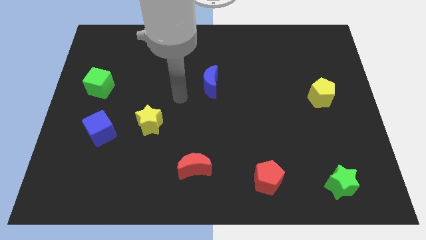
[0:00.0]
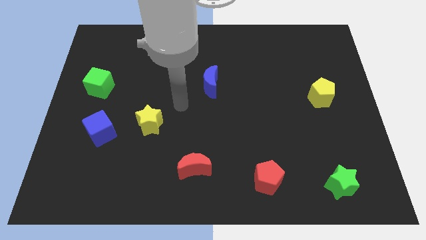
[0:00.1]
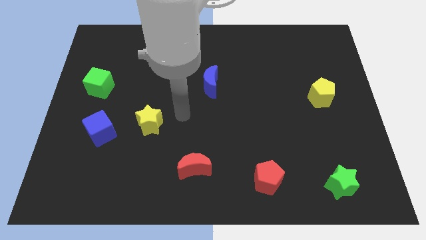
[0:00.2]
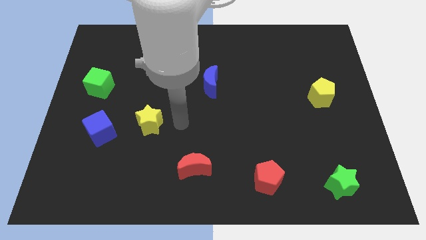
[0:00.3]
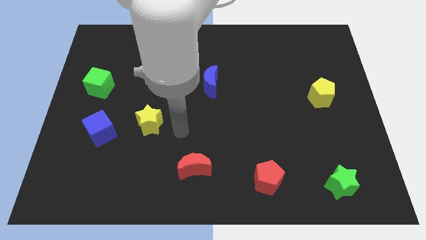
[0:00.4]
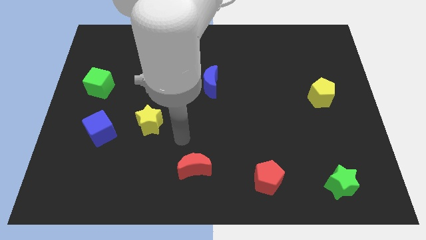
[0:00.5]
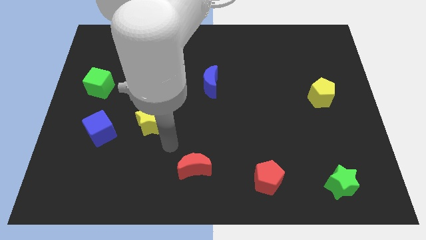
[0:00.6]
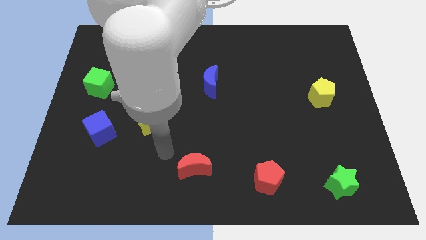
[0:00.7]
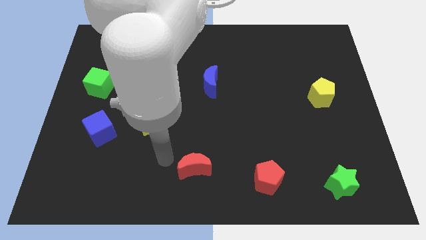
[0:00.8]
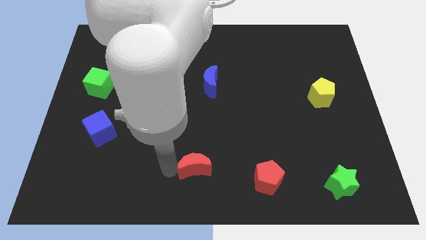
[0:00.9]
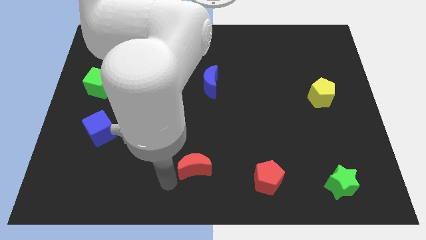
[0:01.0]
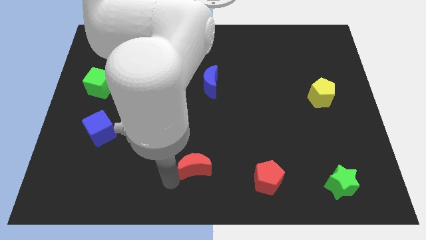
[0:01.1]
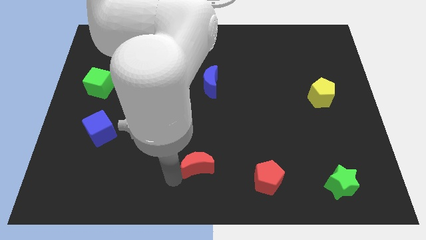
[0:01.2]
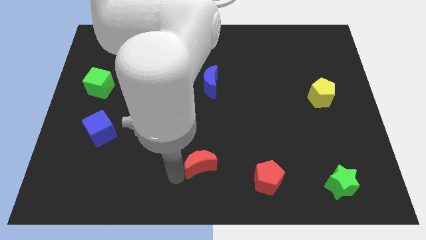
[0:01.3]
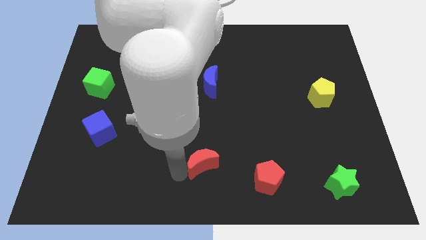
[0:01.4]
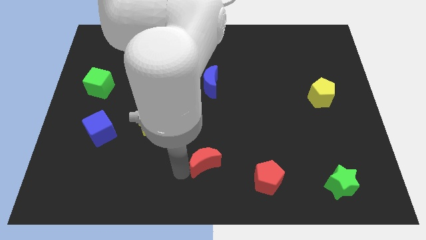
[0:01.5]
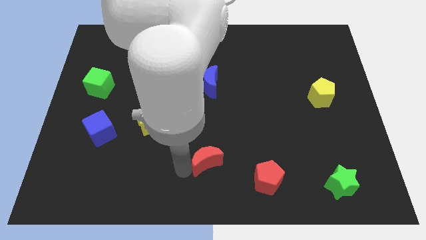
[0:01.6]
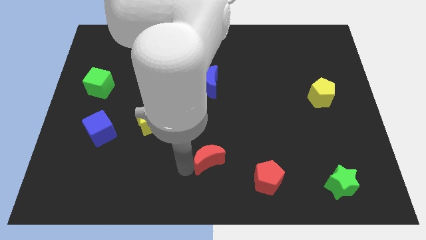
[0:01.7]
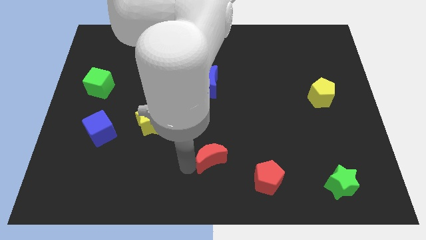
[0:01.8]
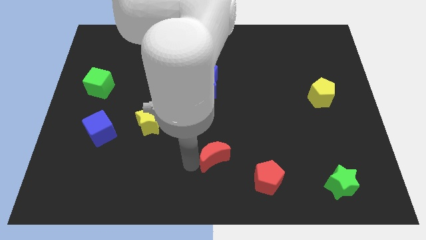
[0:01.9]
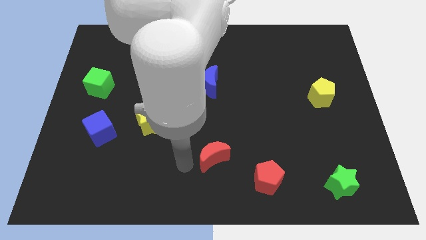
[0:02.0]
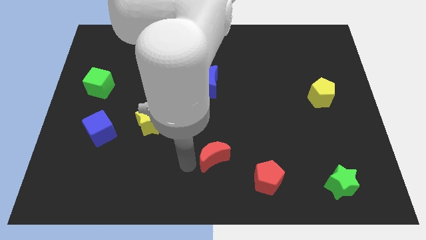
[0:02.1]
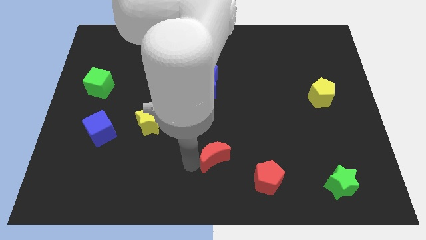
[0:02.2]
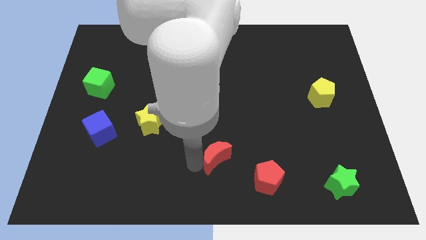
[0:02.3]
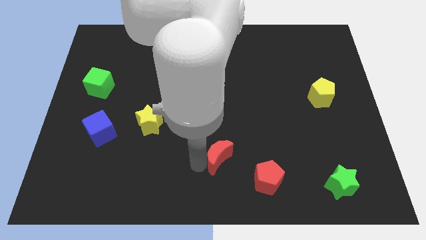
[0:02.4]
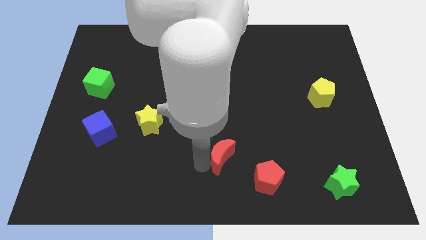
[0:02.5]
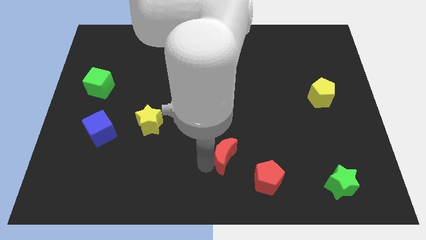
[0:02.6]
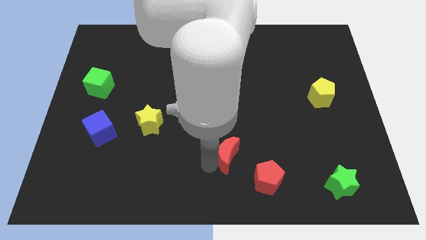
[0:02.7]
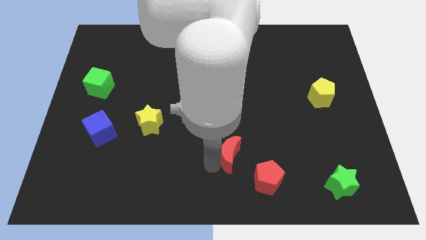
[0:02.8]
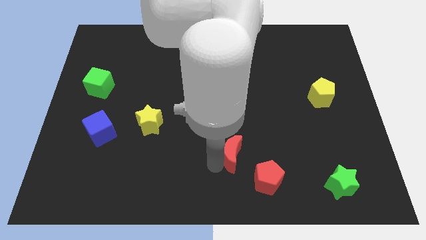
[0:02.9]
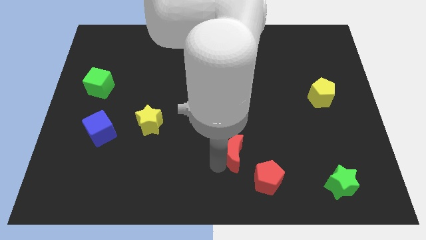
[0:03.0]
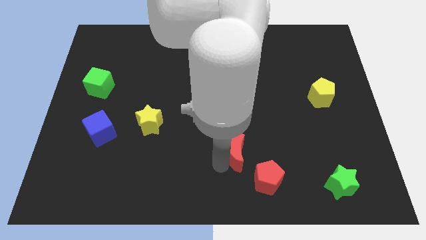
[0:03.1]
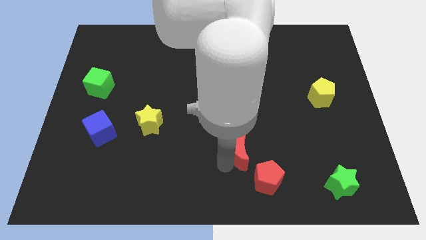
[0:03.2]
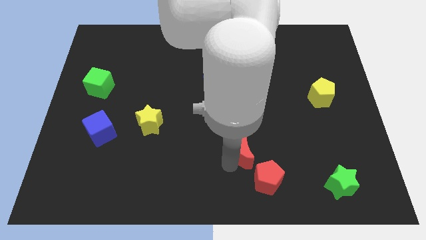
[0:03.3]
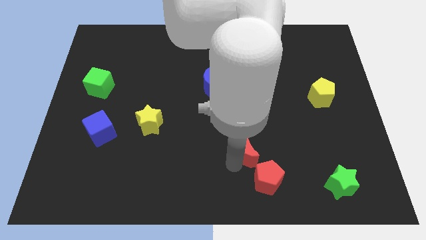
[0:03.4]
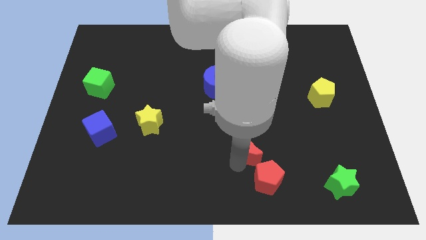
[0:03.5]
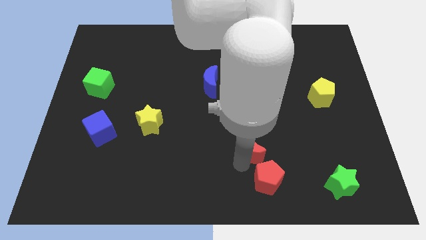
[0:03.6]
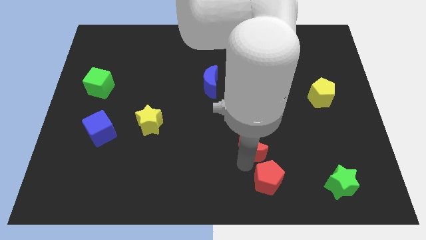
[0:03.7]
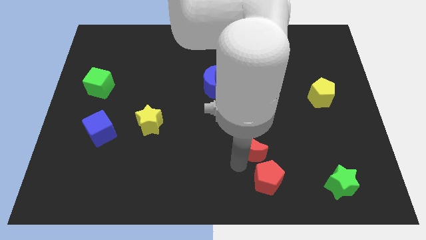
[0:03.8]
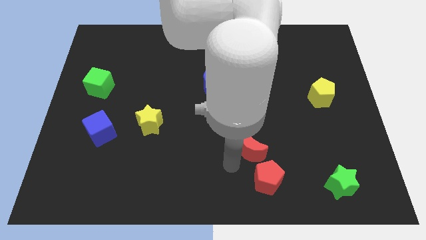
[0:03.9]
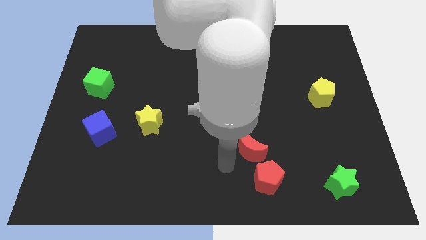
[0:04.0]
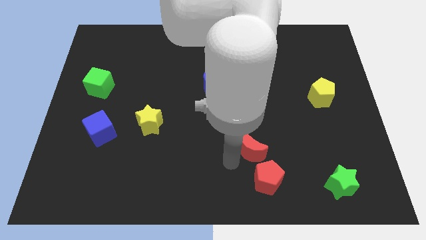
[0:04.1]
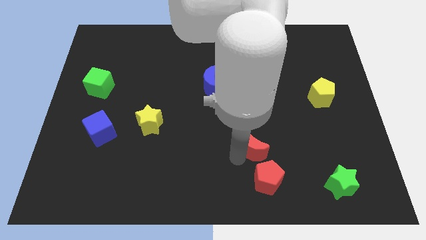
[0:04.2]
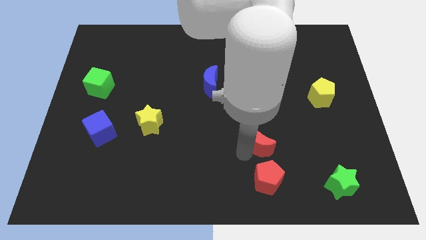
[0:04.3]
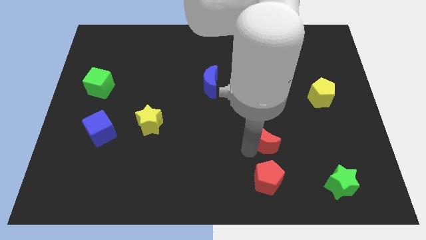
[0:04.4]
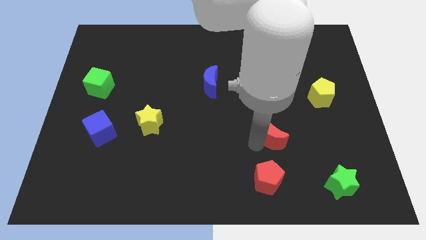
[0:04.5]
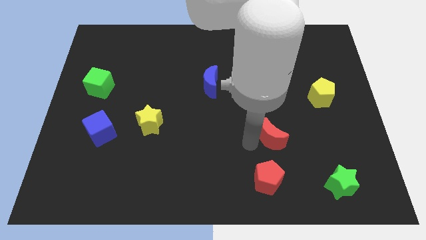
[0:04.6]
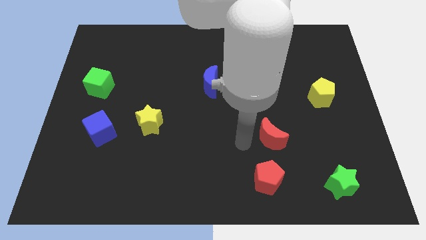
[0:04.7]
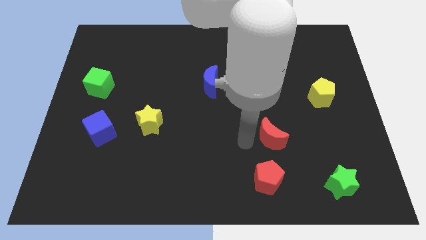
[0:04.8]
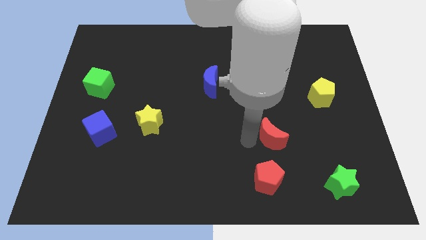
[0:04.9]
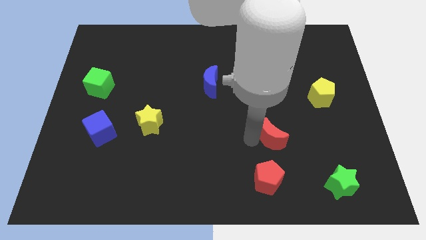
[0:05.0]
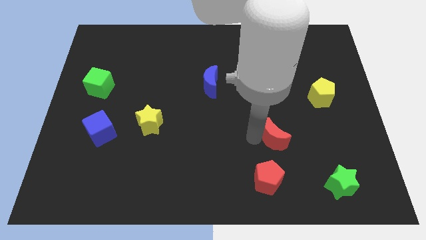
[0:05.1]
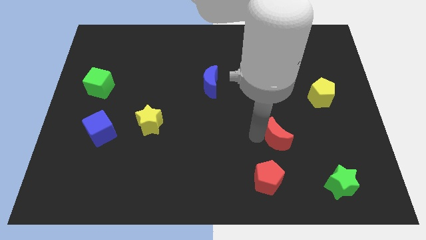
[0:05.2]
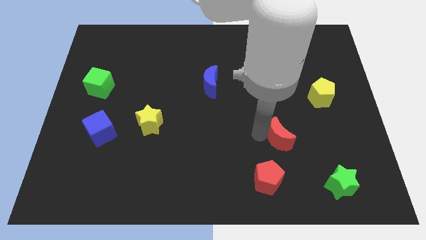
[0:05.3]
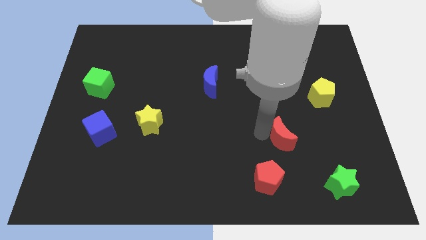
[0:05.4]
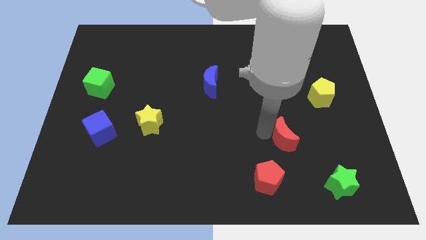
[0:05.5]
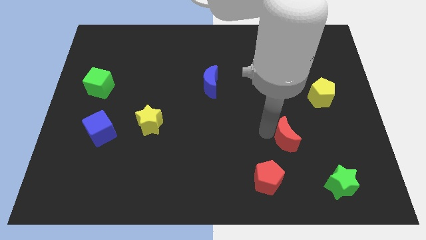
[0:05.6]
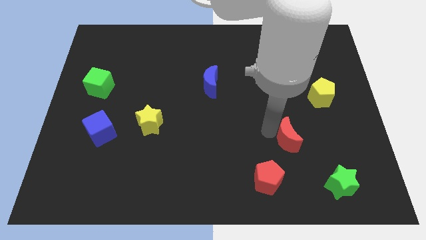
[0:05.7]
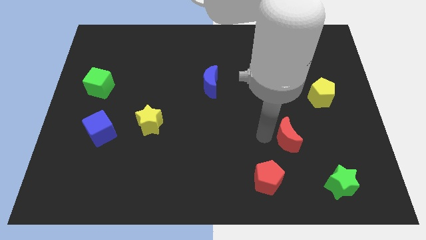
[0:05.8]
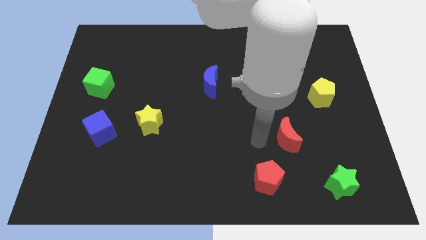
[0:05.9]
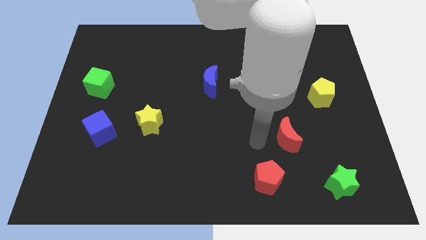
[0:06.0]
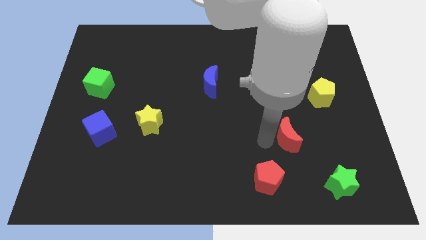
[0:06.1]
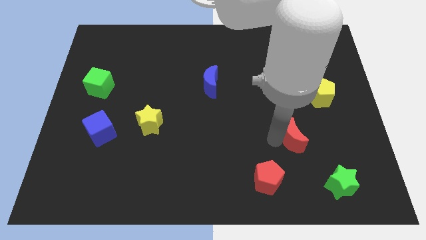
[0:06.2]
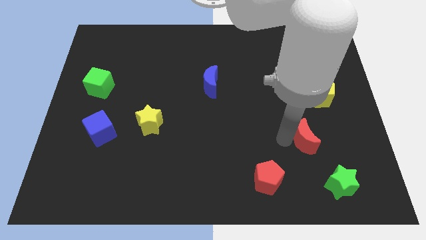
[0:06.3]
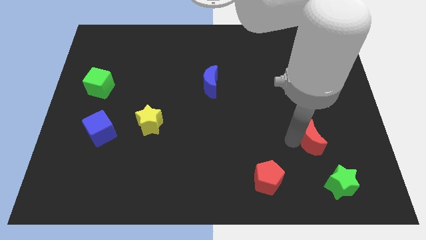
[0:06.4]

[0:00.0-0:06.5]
push the red moon below the yellow pentagon

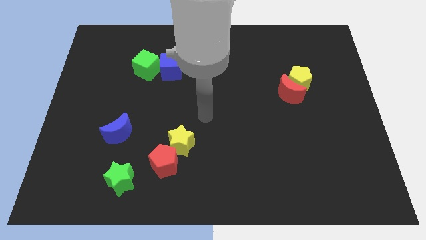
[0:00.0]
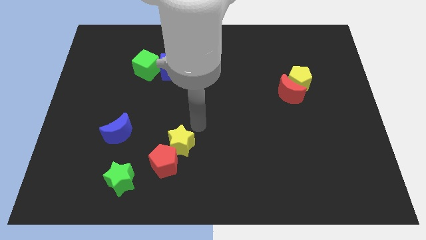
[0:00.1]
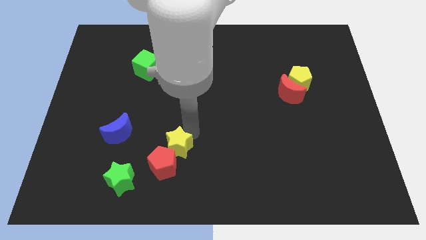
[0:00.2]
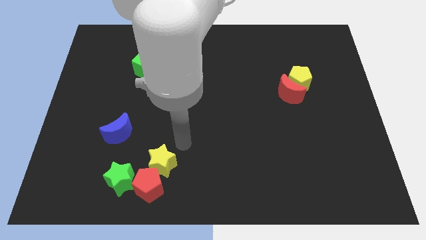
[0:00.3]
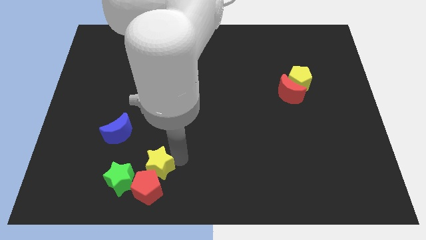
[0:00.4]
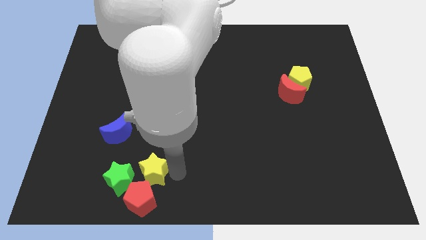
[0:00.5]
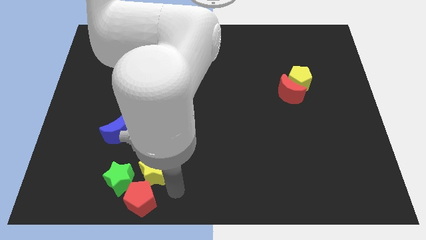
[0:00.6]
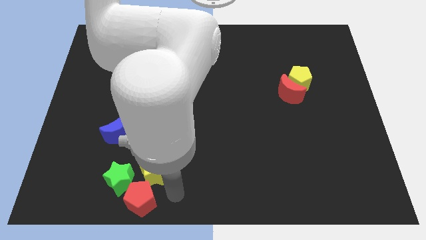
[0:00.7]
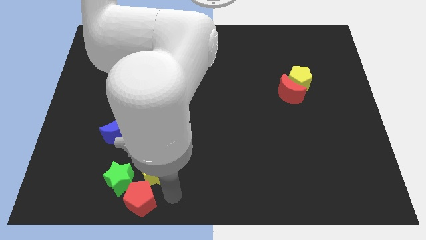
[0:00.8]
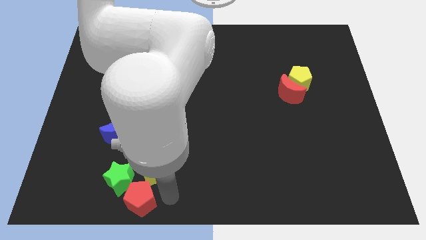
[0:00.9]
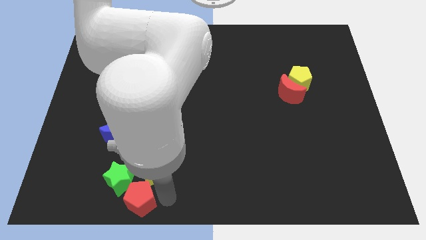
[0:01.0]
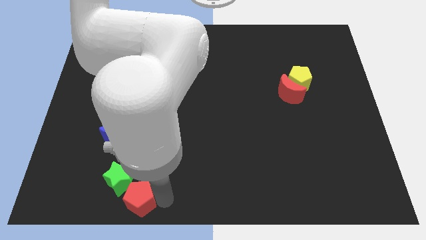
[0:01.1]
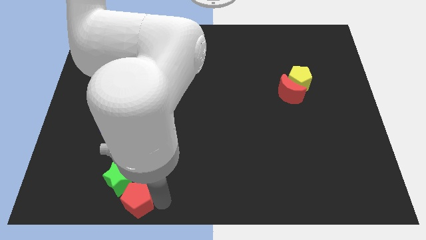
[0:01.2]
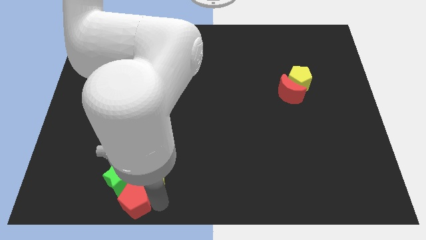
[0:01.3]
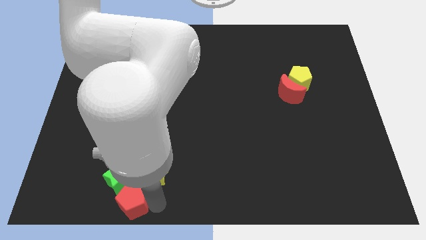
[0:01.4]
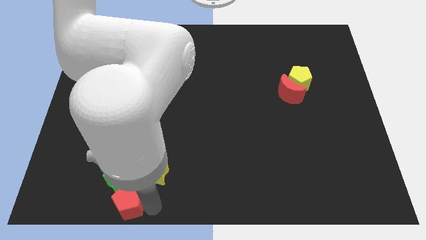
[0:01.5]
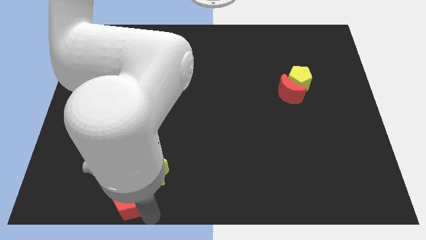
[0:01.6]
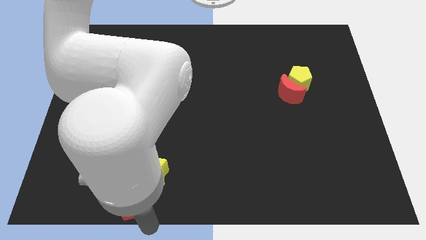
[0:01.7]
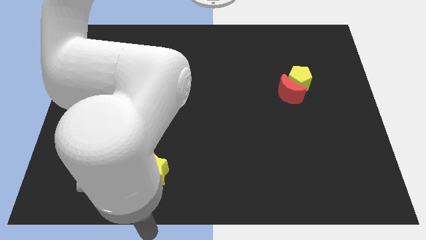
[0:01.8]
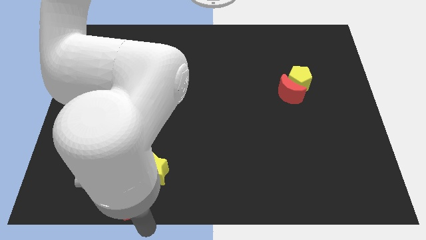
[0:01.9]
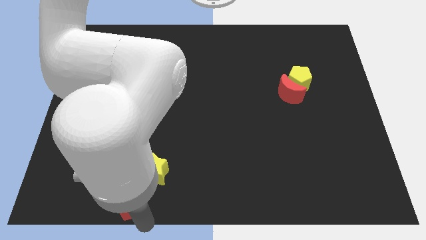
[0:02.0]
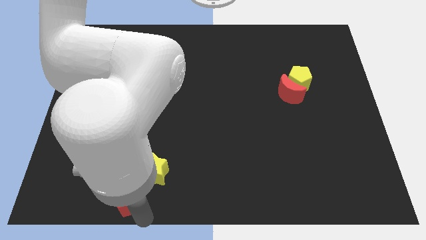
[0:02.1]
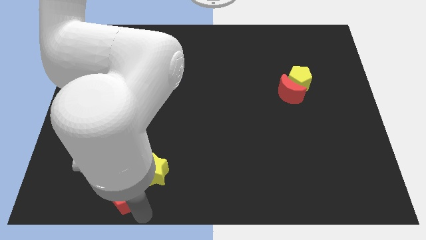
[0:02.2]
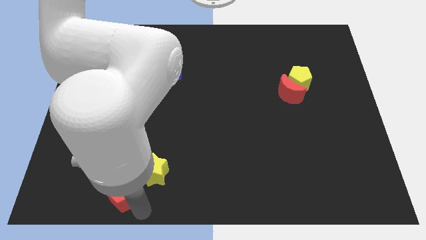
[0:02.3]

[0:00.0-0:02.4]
put the red pentagon to the bottom of the blue moon
